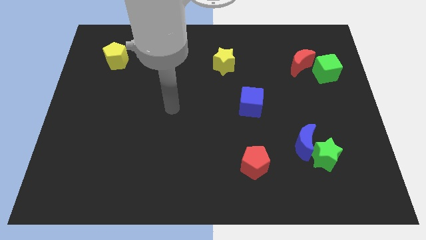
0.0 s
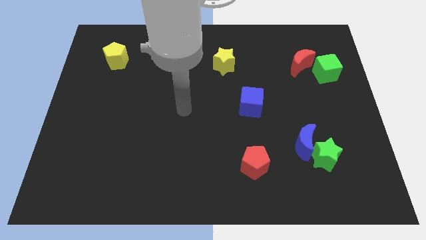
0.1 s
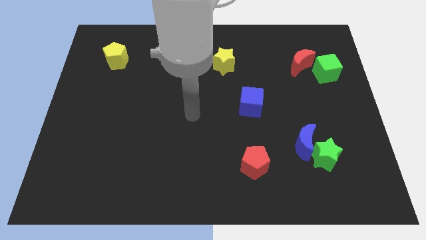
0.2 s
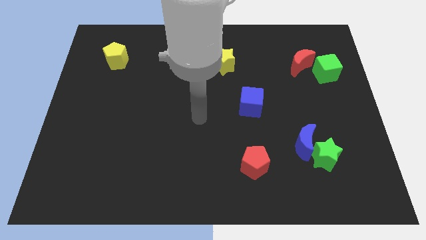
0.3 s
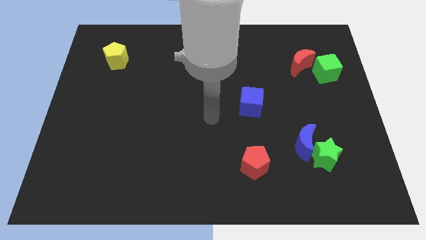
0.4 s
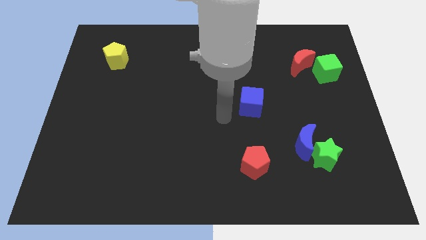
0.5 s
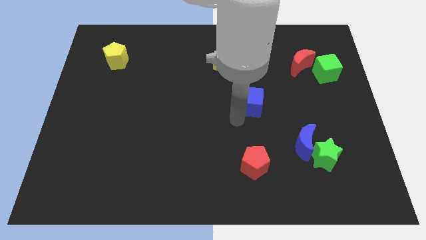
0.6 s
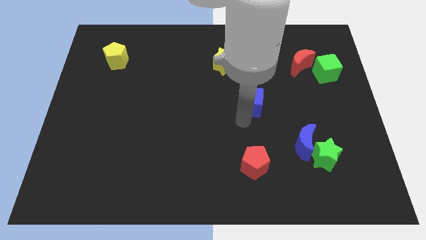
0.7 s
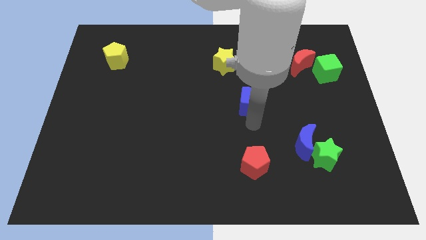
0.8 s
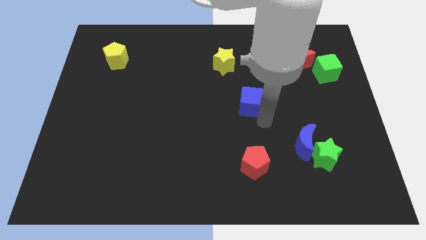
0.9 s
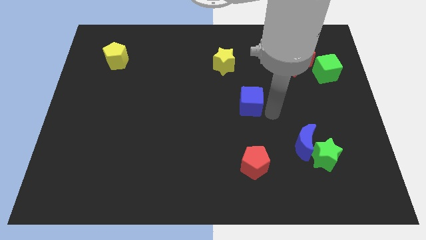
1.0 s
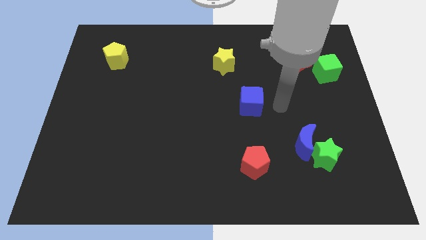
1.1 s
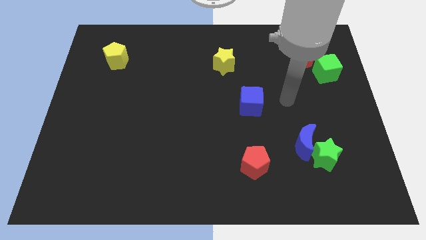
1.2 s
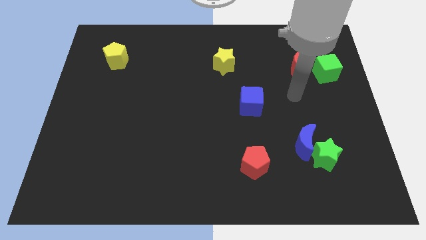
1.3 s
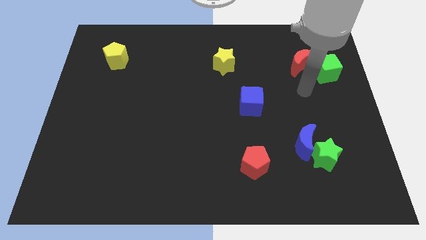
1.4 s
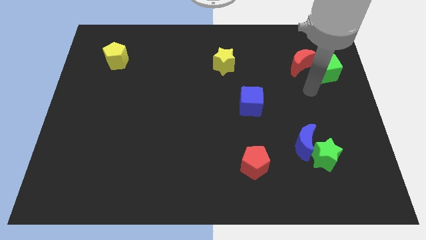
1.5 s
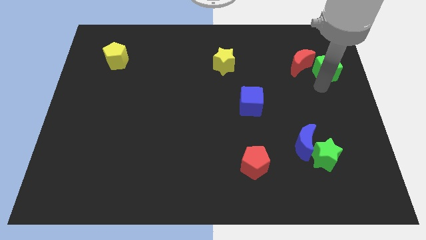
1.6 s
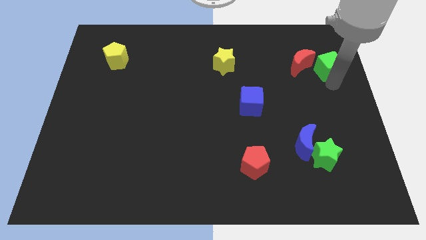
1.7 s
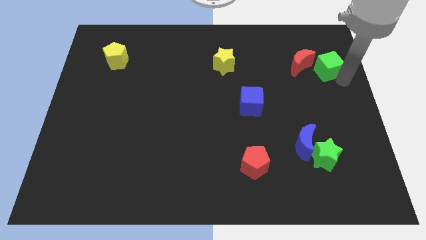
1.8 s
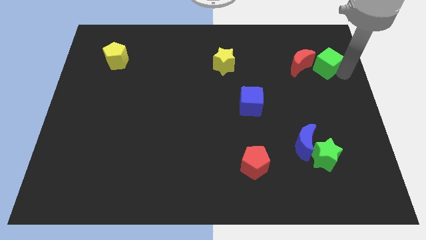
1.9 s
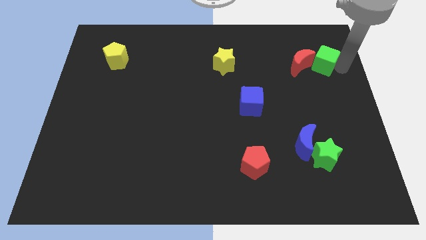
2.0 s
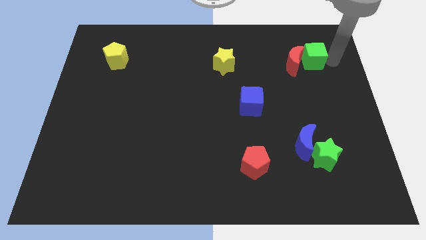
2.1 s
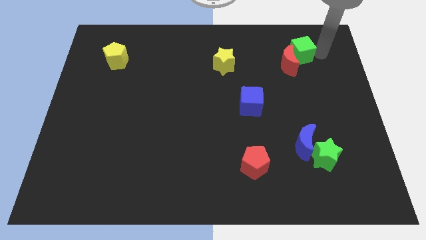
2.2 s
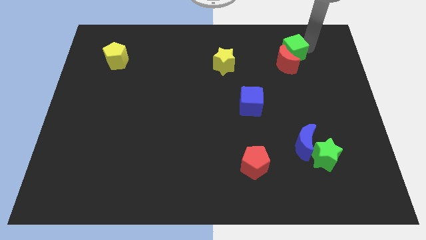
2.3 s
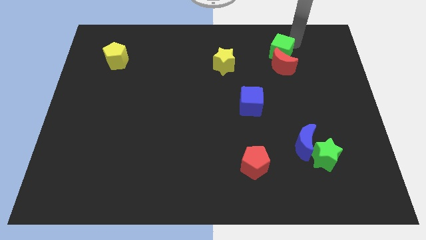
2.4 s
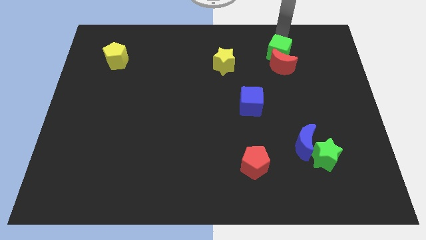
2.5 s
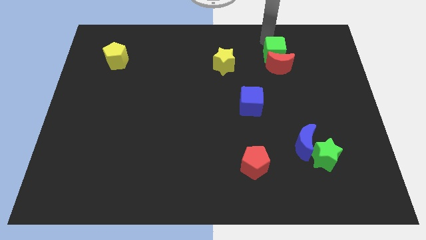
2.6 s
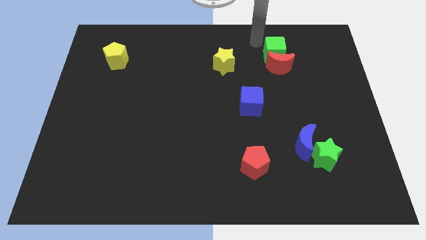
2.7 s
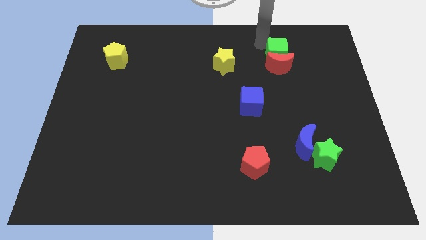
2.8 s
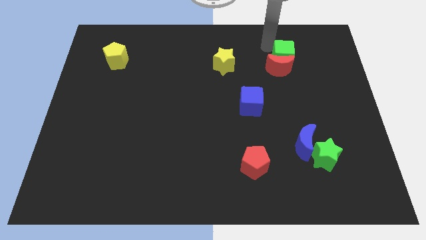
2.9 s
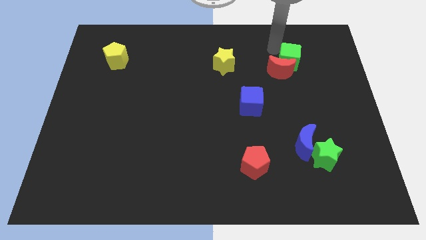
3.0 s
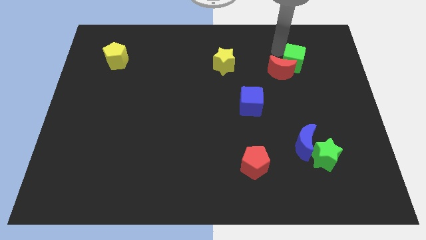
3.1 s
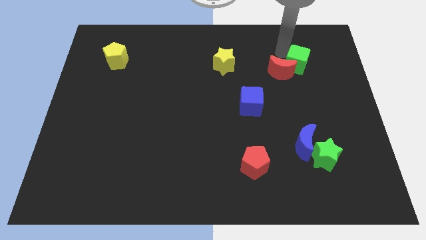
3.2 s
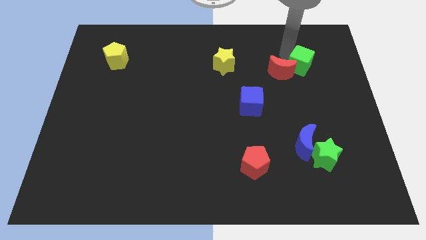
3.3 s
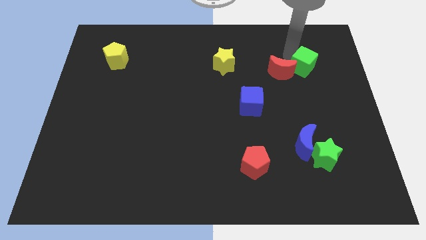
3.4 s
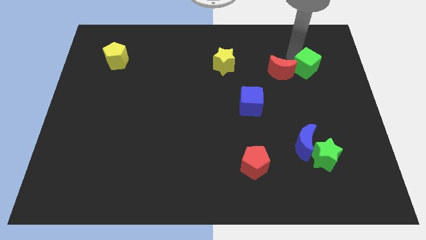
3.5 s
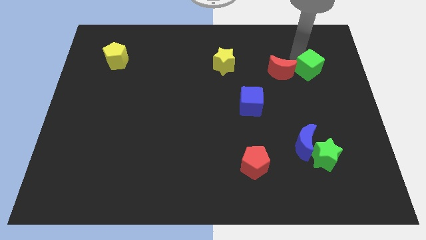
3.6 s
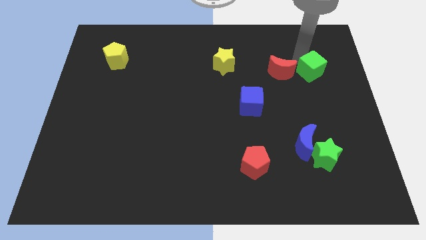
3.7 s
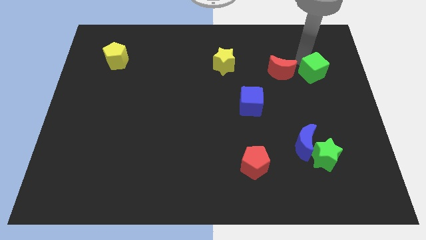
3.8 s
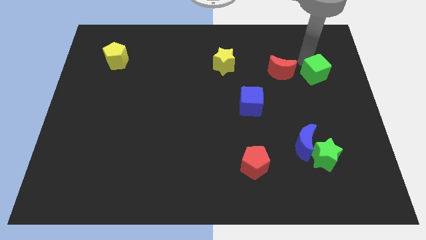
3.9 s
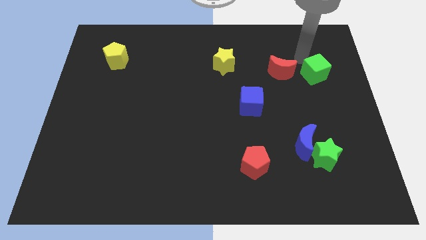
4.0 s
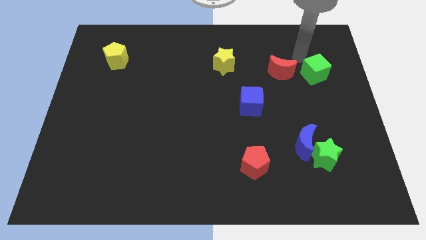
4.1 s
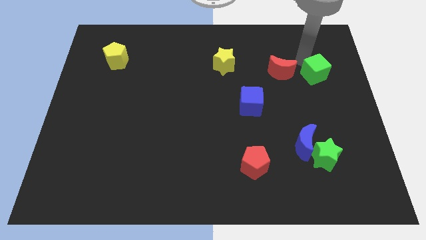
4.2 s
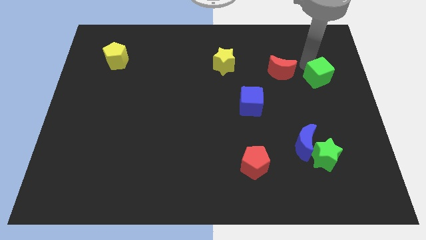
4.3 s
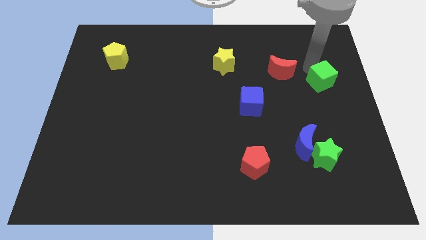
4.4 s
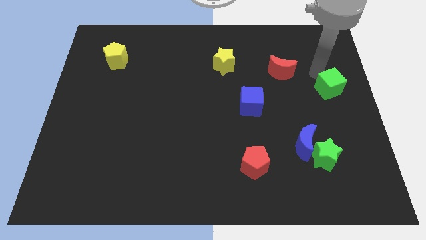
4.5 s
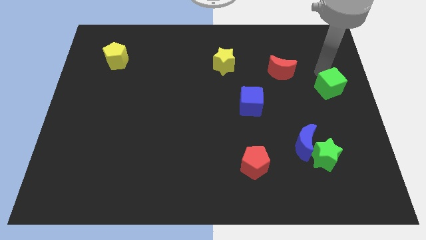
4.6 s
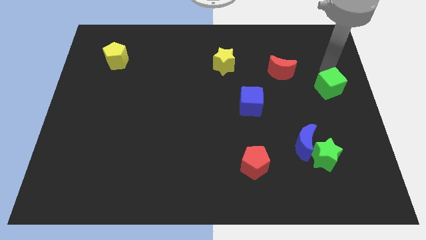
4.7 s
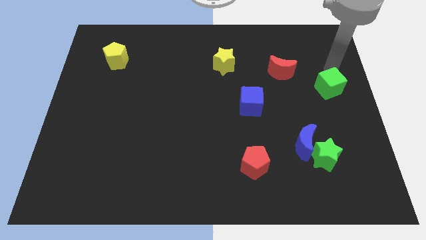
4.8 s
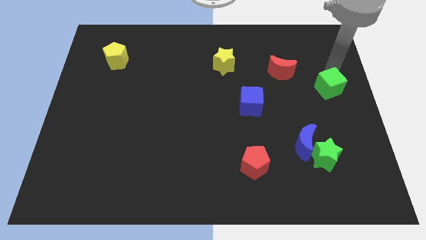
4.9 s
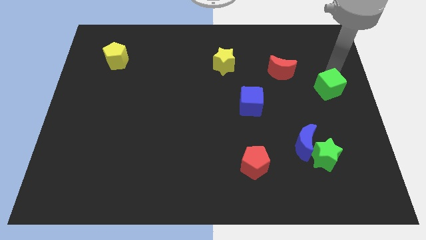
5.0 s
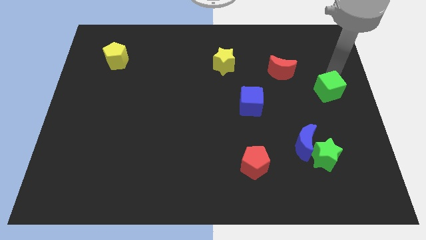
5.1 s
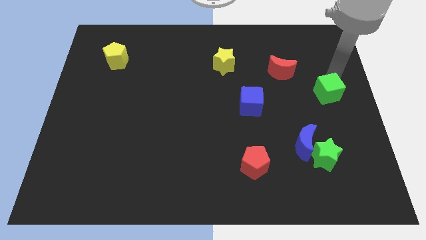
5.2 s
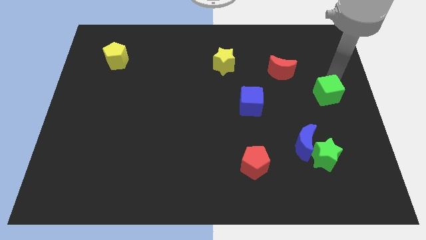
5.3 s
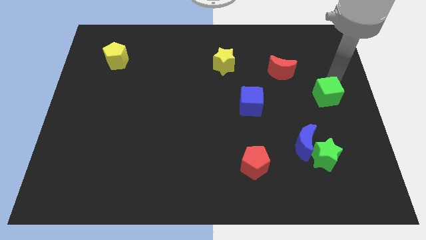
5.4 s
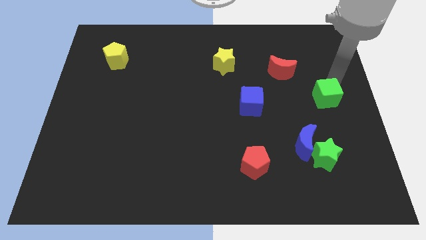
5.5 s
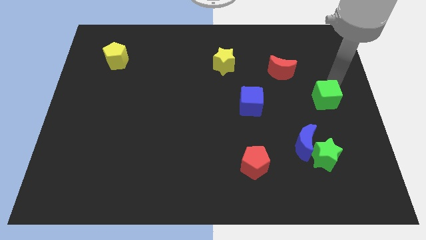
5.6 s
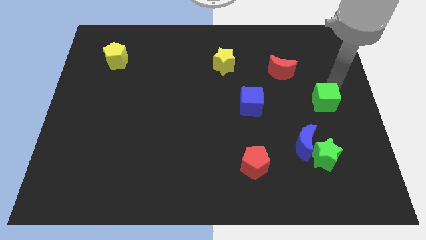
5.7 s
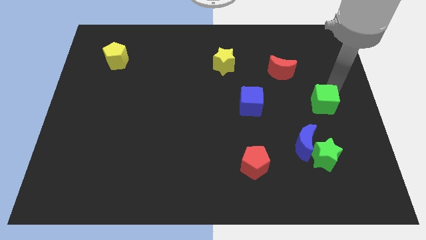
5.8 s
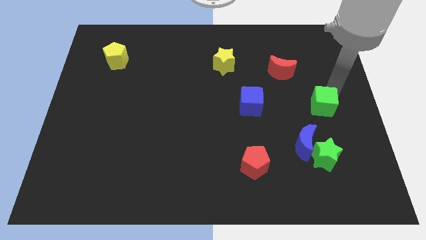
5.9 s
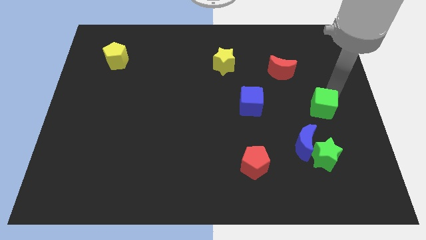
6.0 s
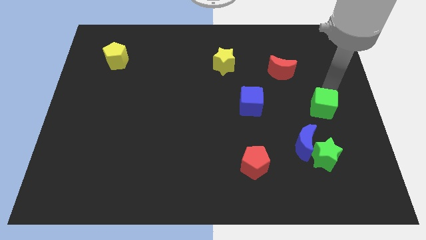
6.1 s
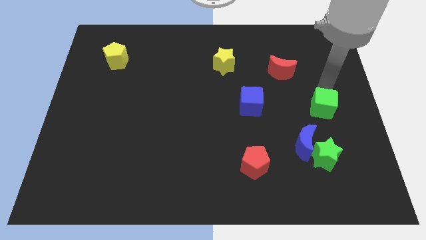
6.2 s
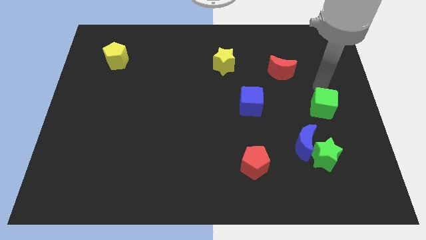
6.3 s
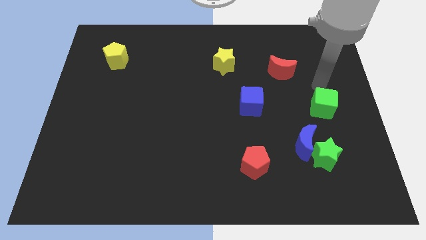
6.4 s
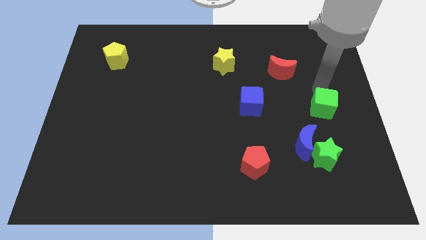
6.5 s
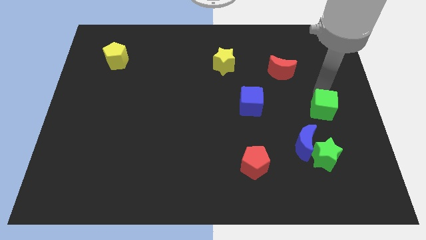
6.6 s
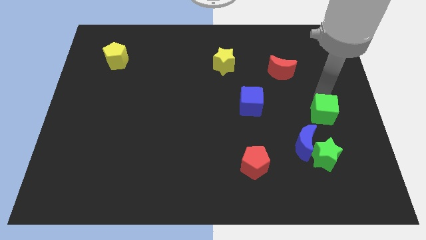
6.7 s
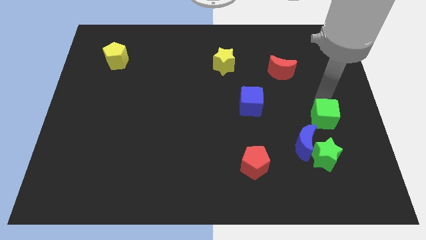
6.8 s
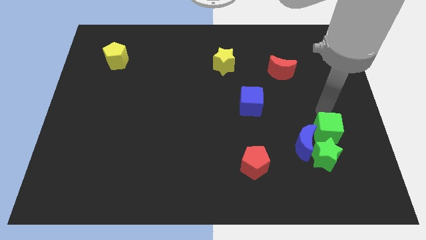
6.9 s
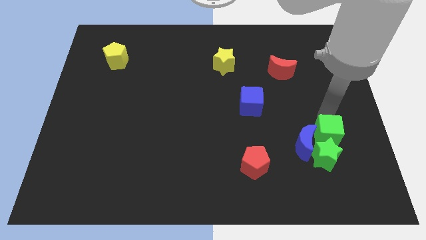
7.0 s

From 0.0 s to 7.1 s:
move the green cube close to the green star
